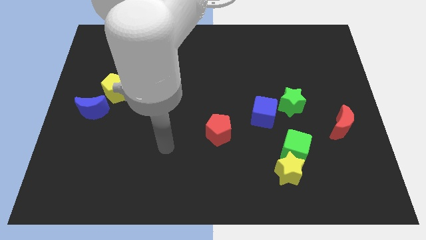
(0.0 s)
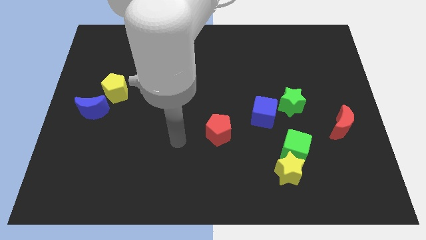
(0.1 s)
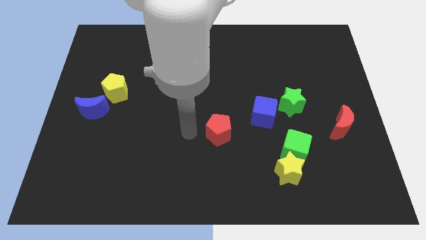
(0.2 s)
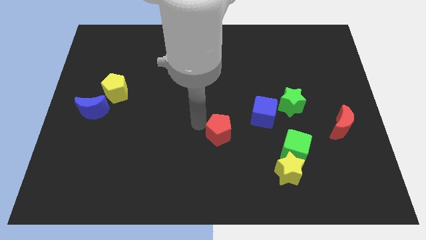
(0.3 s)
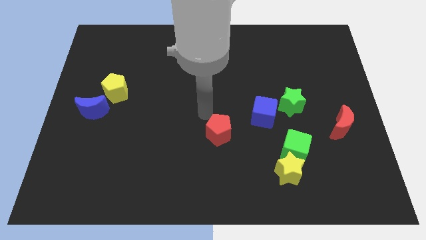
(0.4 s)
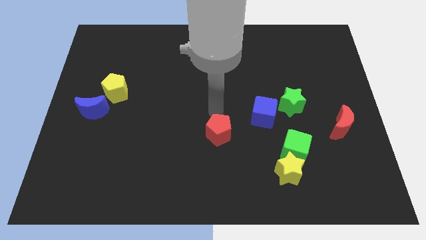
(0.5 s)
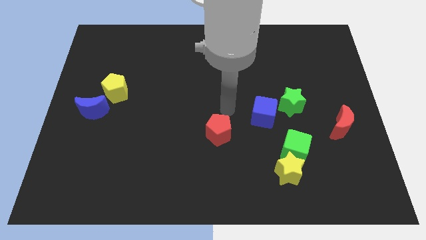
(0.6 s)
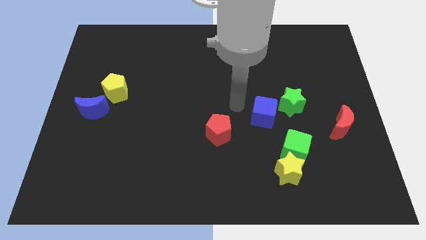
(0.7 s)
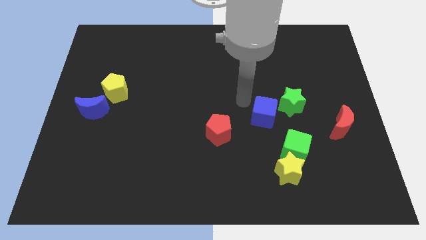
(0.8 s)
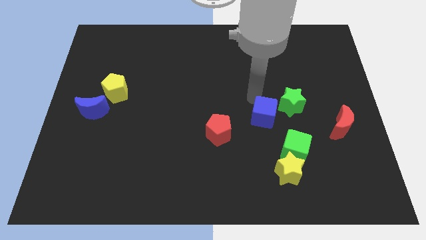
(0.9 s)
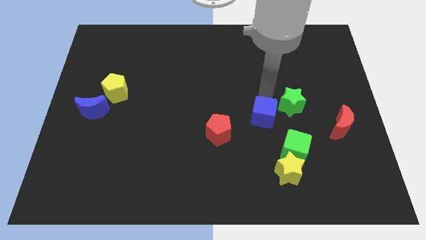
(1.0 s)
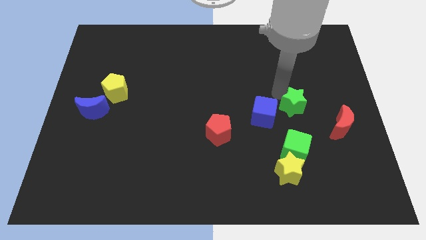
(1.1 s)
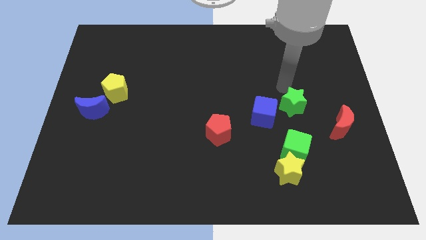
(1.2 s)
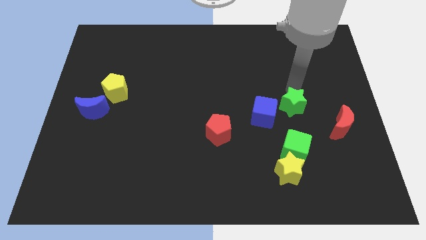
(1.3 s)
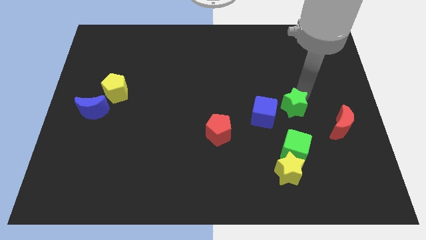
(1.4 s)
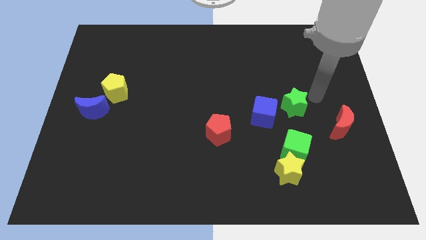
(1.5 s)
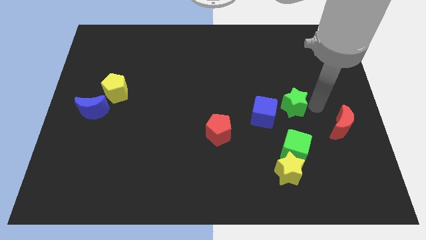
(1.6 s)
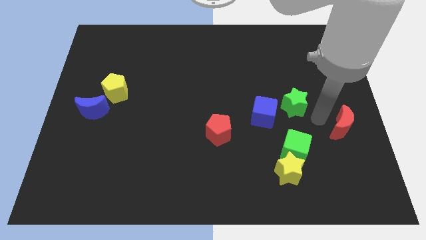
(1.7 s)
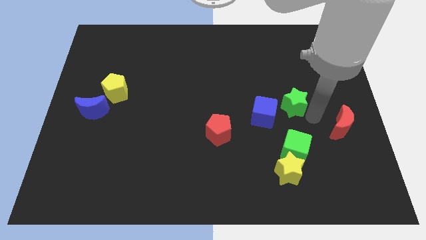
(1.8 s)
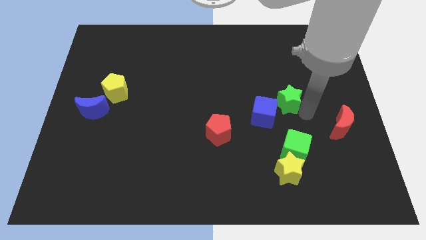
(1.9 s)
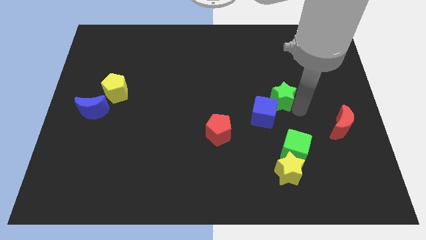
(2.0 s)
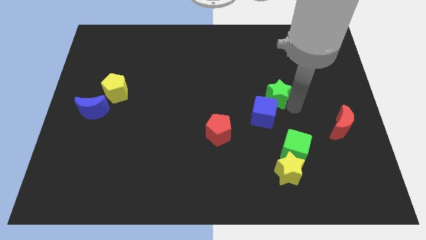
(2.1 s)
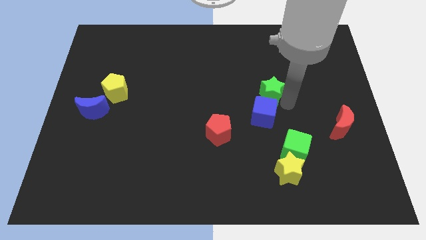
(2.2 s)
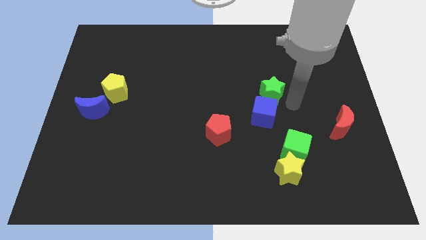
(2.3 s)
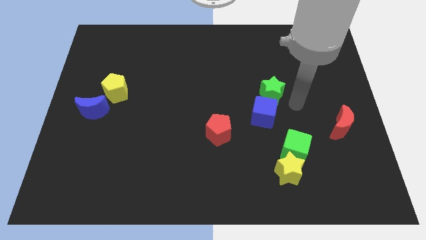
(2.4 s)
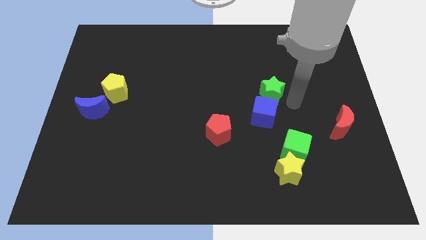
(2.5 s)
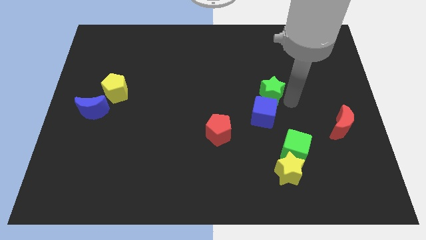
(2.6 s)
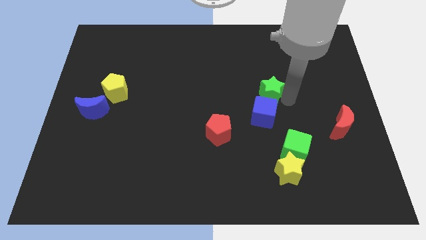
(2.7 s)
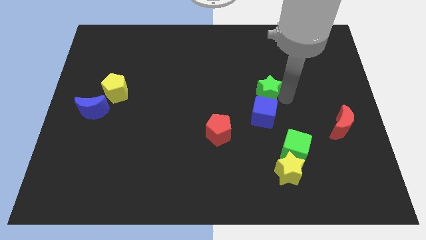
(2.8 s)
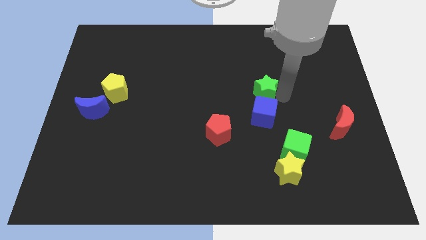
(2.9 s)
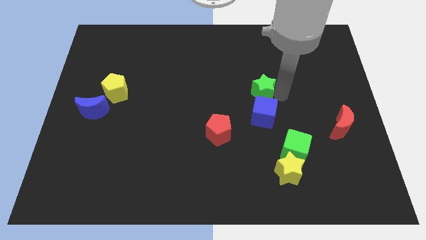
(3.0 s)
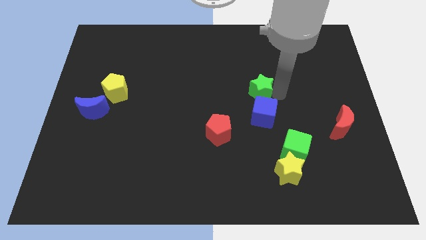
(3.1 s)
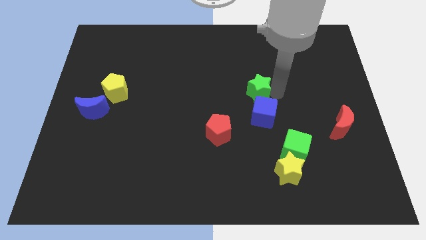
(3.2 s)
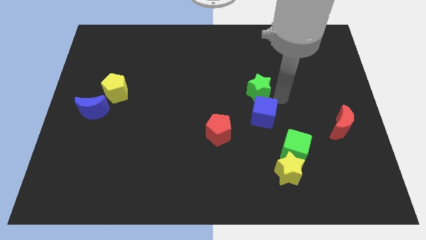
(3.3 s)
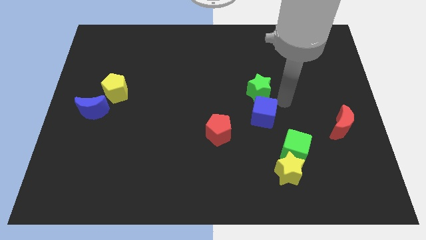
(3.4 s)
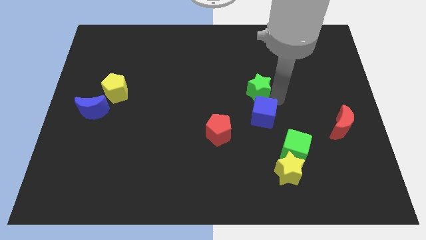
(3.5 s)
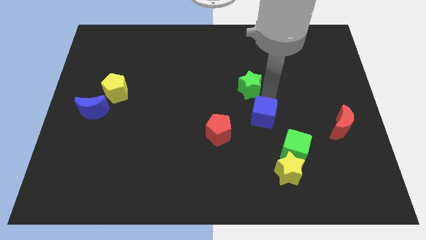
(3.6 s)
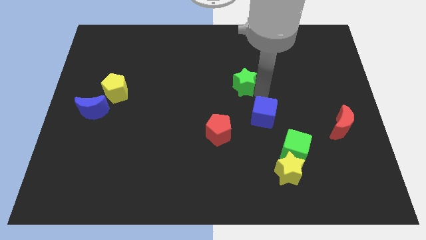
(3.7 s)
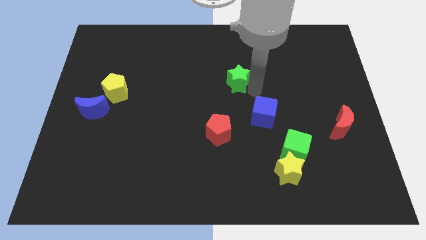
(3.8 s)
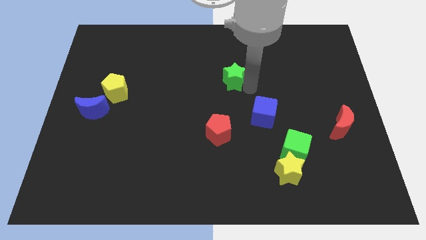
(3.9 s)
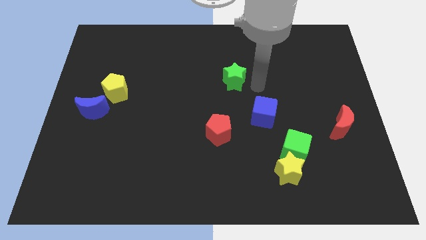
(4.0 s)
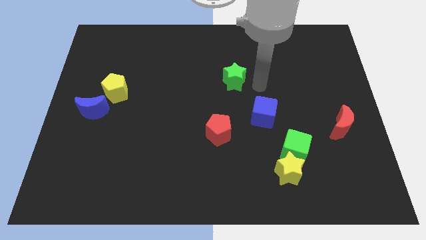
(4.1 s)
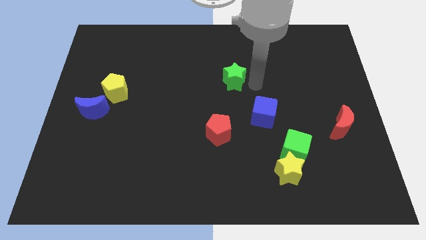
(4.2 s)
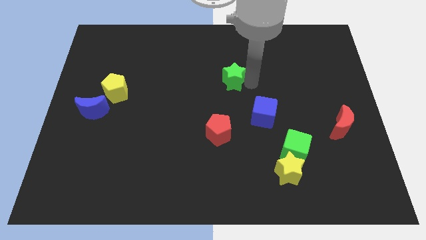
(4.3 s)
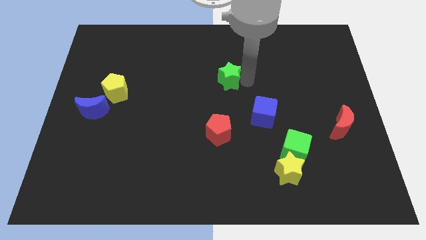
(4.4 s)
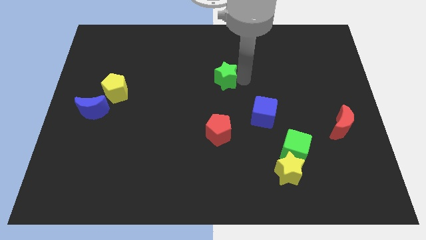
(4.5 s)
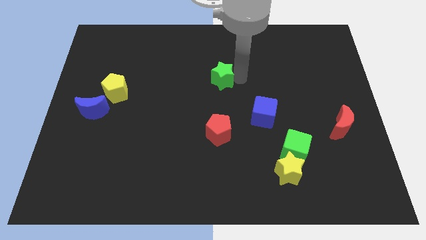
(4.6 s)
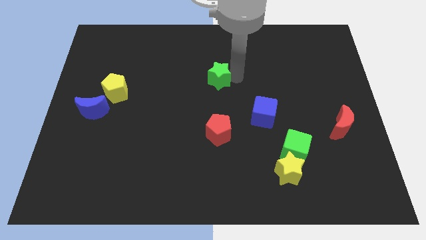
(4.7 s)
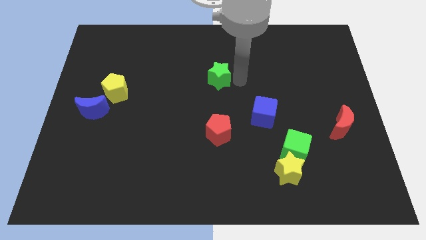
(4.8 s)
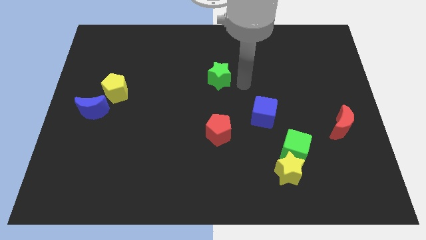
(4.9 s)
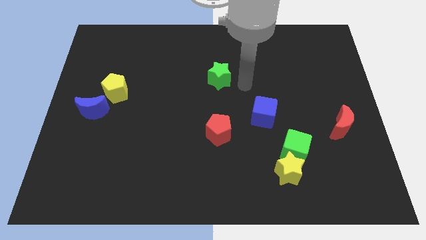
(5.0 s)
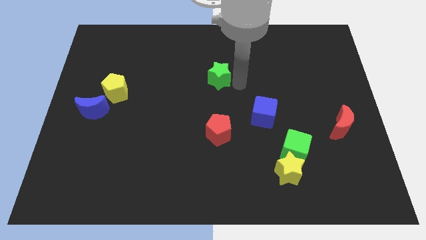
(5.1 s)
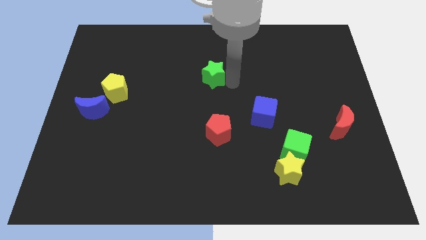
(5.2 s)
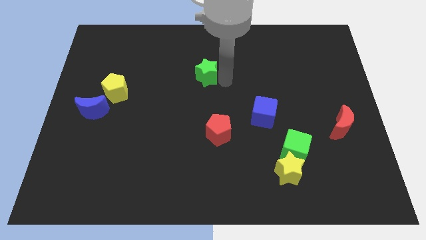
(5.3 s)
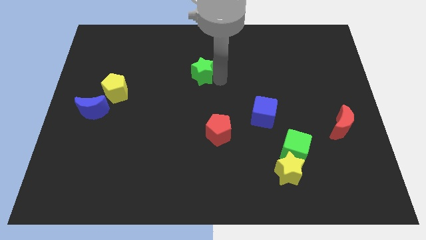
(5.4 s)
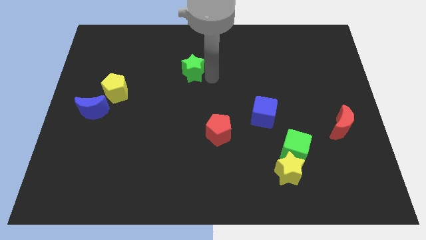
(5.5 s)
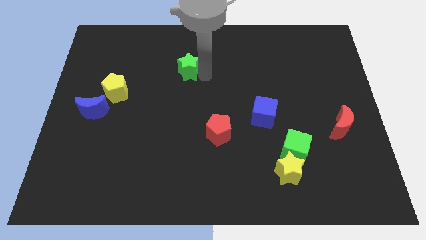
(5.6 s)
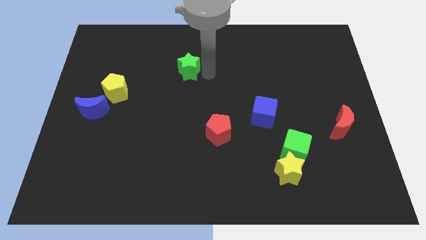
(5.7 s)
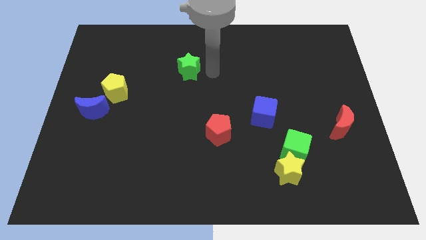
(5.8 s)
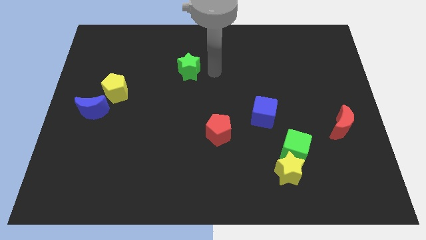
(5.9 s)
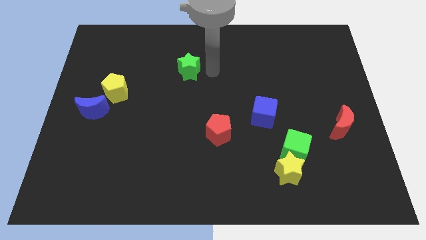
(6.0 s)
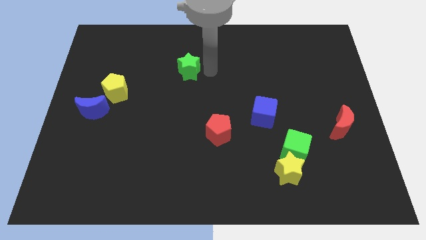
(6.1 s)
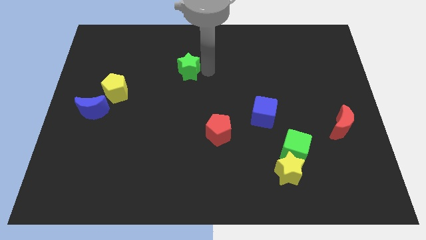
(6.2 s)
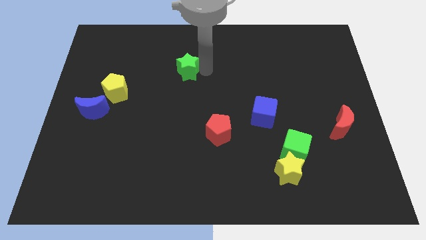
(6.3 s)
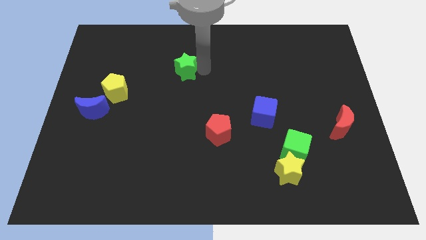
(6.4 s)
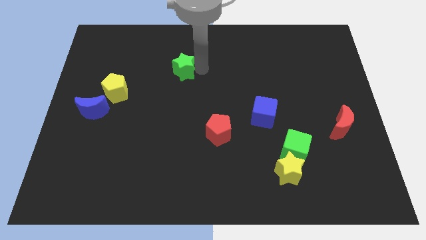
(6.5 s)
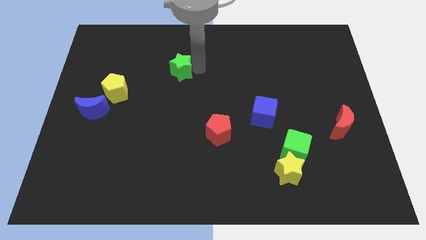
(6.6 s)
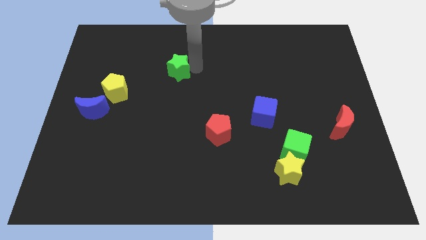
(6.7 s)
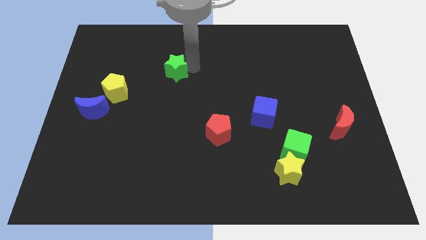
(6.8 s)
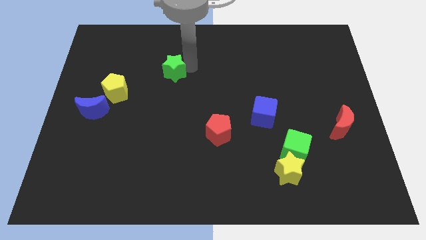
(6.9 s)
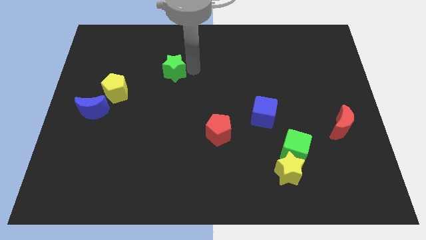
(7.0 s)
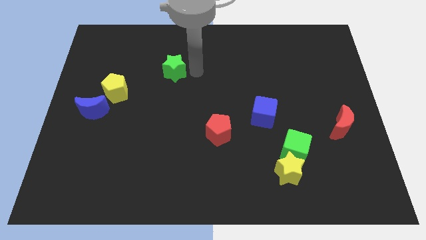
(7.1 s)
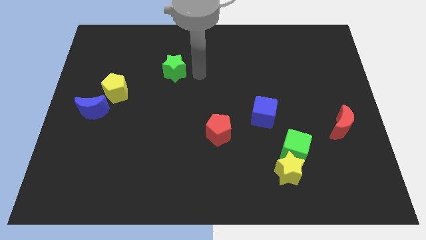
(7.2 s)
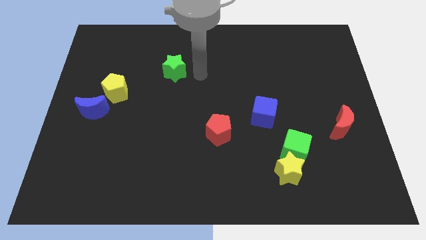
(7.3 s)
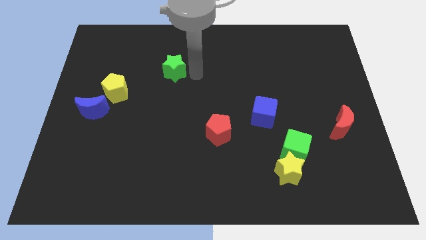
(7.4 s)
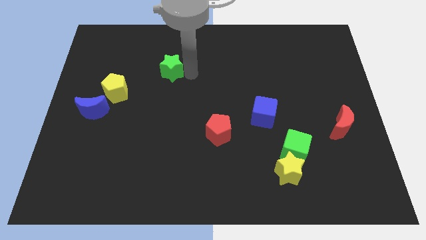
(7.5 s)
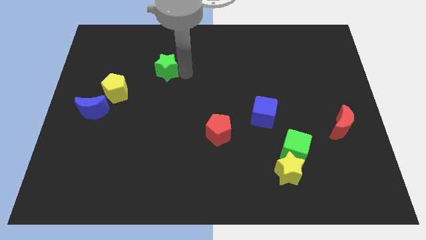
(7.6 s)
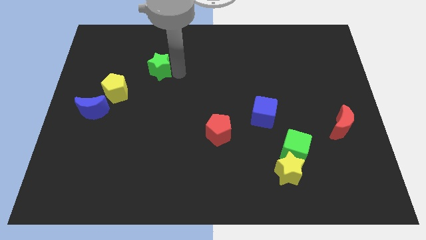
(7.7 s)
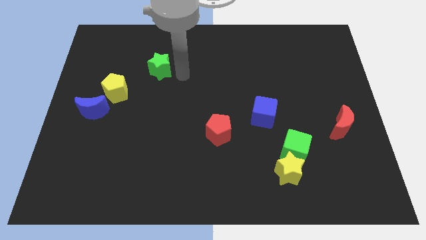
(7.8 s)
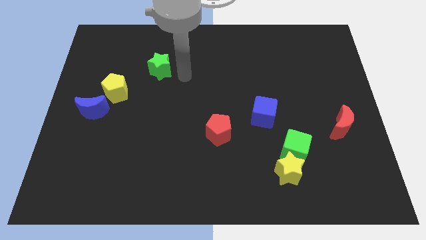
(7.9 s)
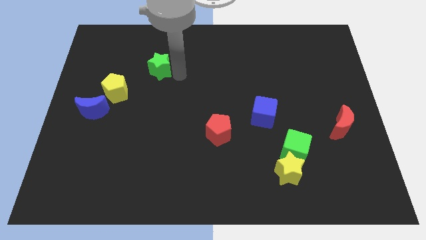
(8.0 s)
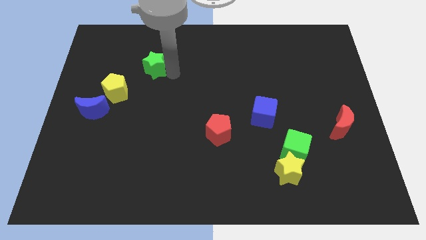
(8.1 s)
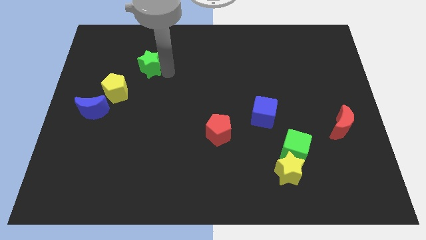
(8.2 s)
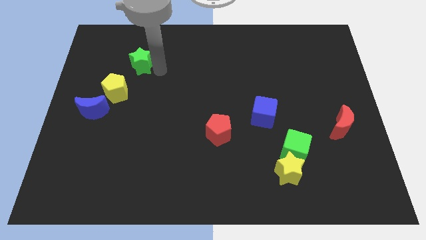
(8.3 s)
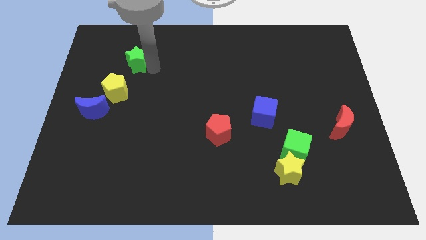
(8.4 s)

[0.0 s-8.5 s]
move the green star to the top of the yellow pentagon
